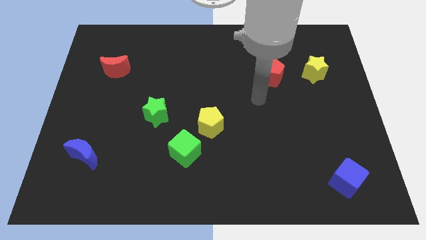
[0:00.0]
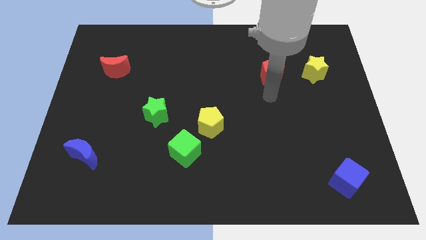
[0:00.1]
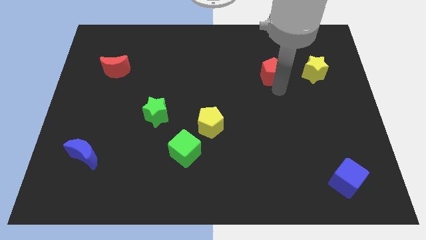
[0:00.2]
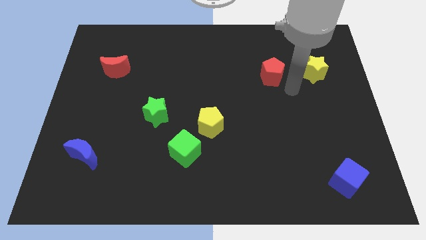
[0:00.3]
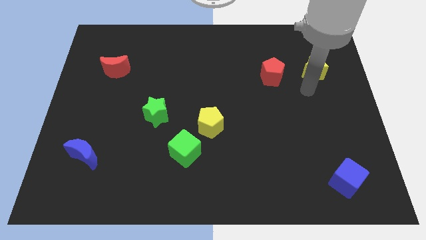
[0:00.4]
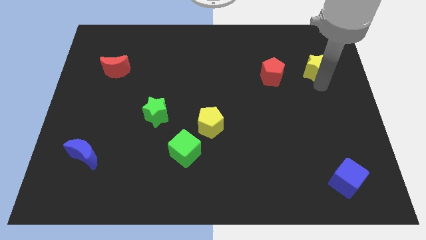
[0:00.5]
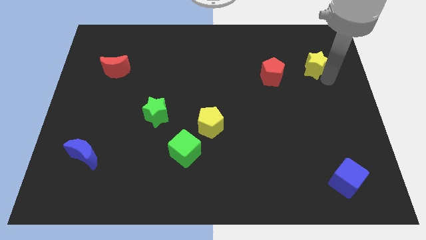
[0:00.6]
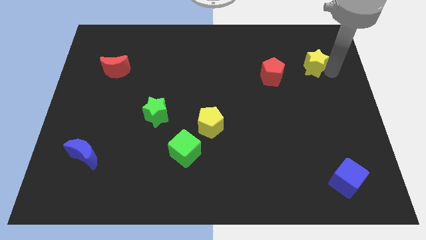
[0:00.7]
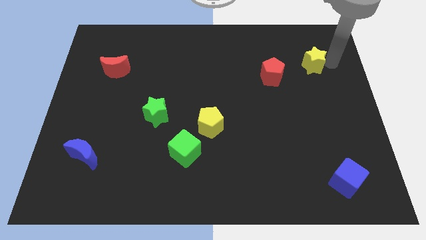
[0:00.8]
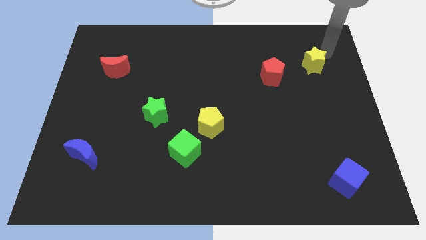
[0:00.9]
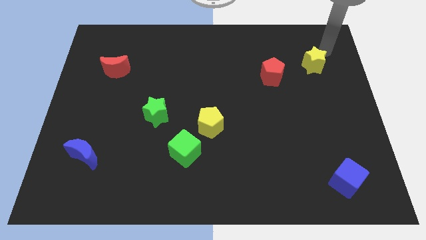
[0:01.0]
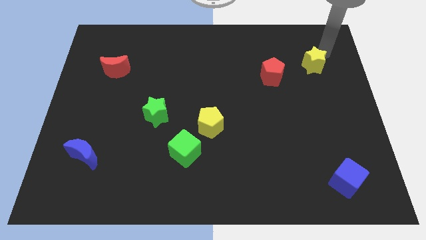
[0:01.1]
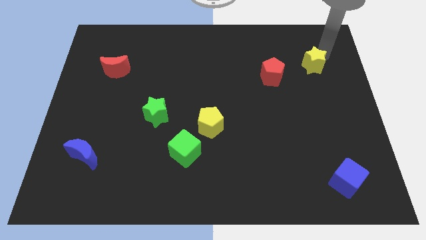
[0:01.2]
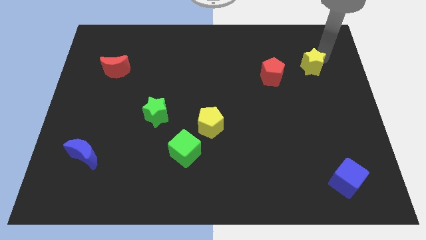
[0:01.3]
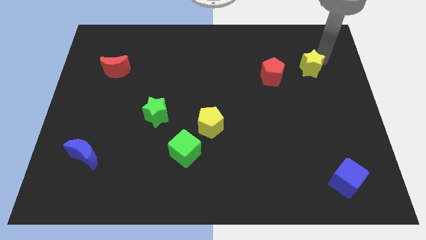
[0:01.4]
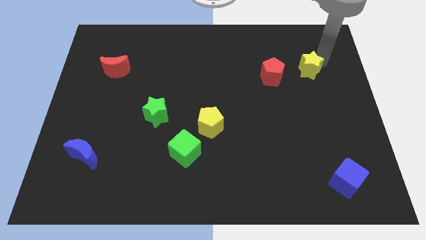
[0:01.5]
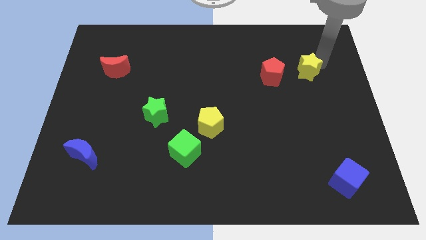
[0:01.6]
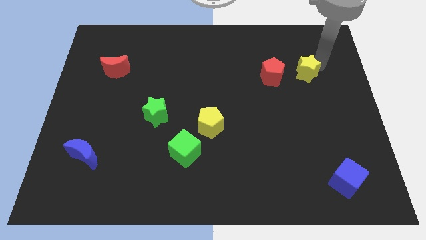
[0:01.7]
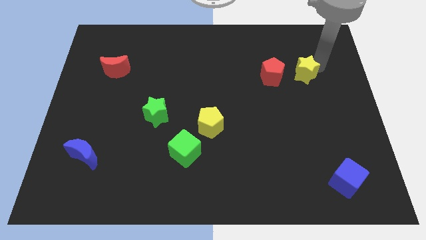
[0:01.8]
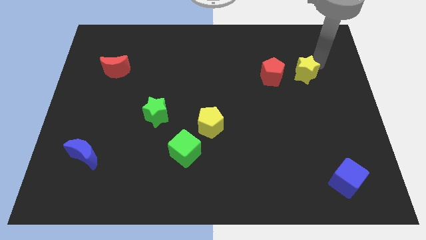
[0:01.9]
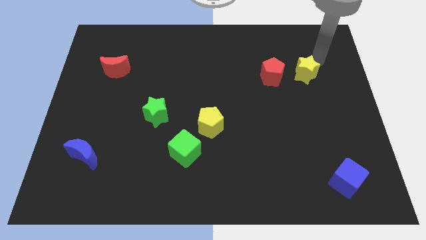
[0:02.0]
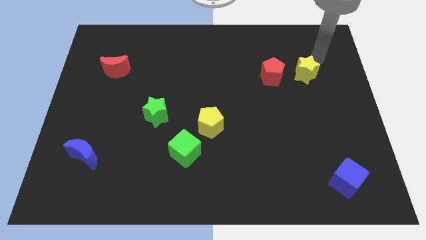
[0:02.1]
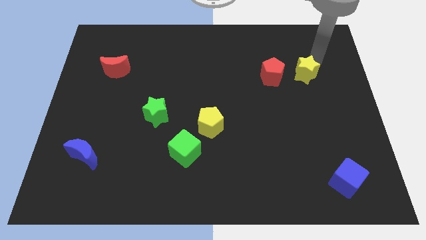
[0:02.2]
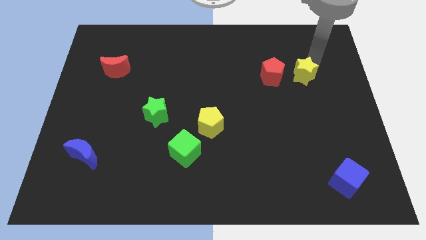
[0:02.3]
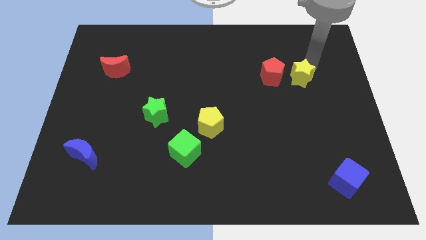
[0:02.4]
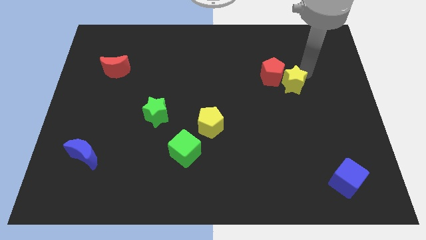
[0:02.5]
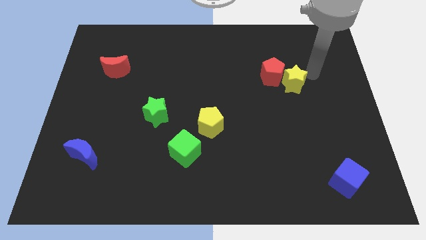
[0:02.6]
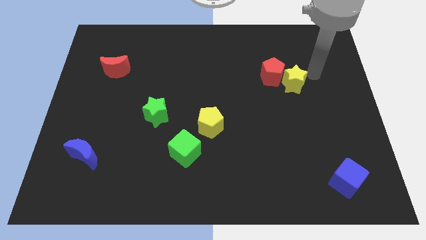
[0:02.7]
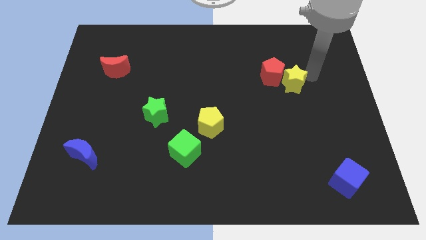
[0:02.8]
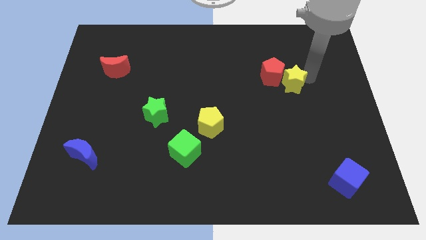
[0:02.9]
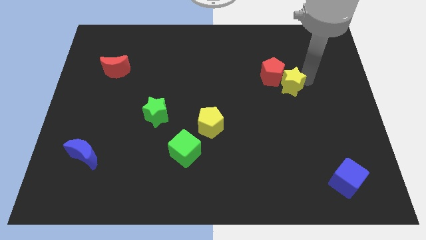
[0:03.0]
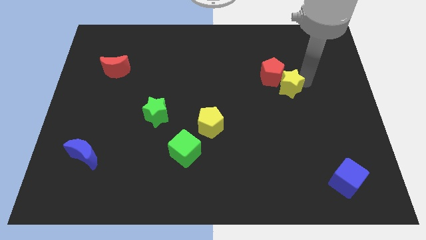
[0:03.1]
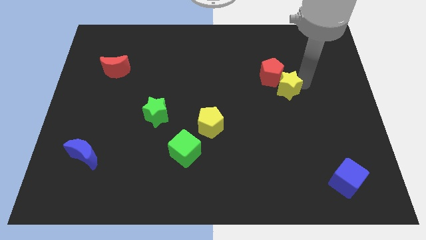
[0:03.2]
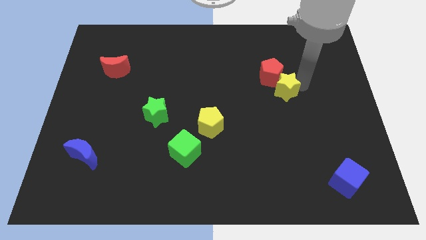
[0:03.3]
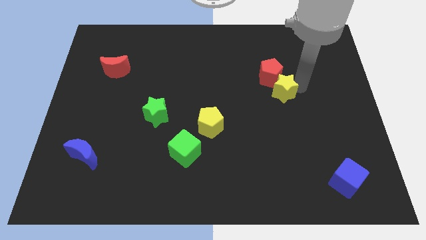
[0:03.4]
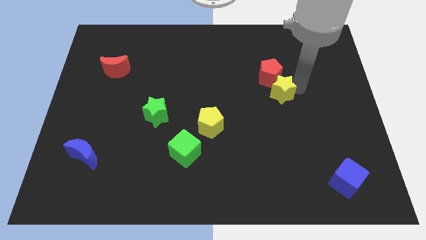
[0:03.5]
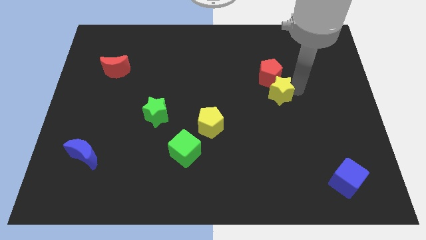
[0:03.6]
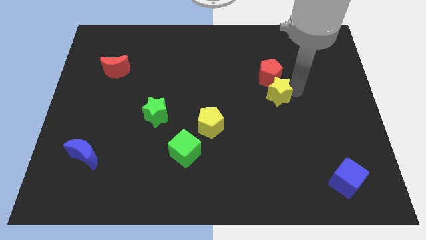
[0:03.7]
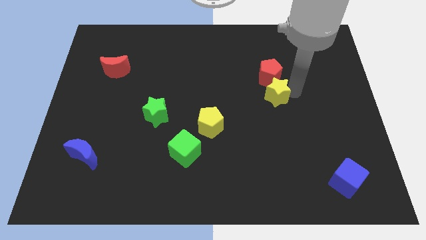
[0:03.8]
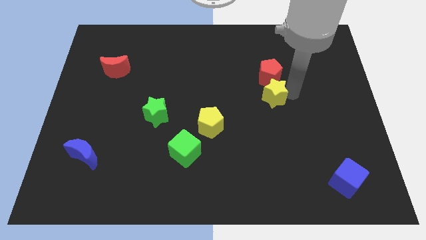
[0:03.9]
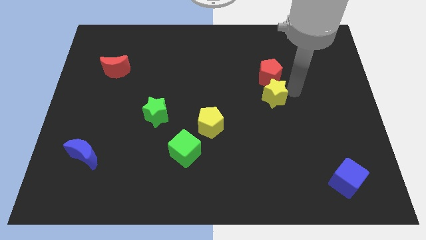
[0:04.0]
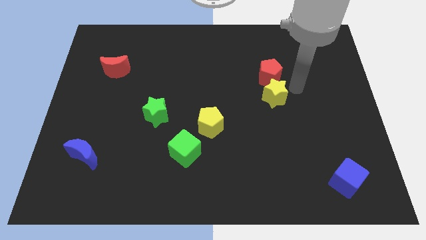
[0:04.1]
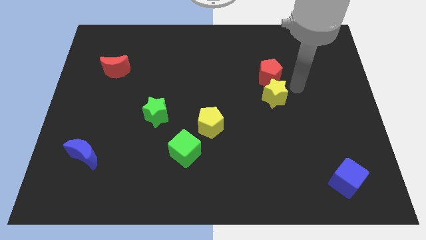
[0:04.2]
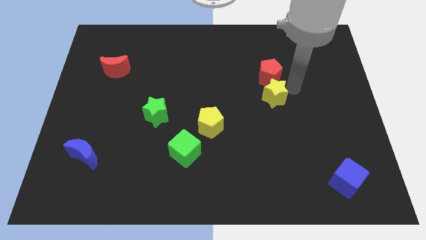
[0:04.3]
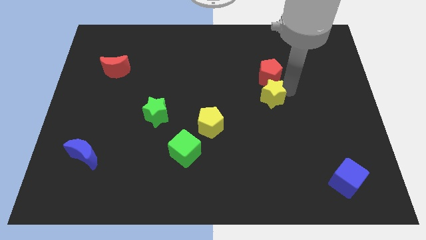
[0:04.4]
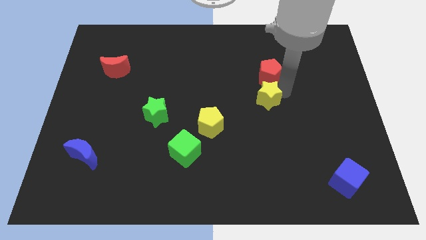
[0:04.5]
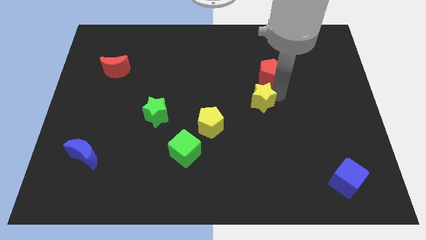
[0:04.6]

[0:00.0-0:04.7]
put the yellow star to the middle

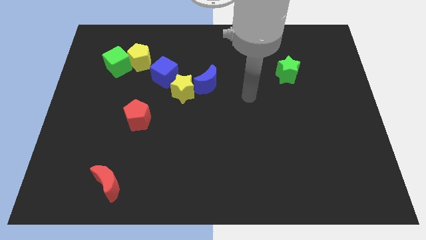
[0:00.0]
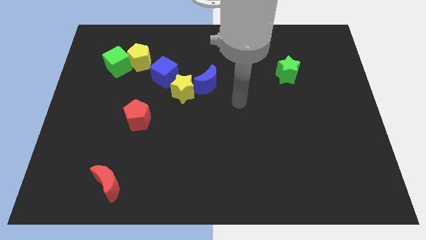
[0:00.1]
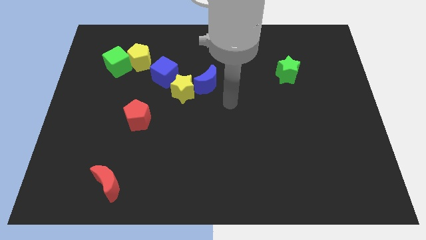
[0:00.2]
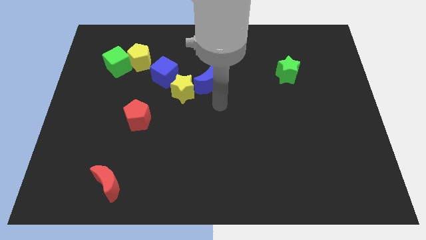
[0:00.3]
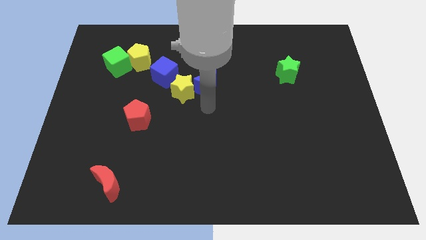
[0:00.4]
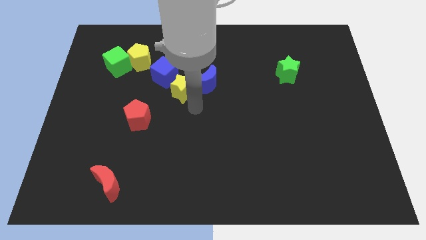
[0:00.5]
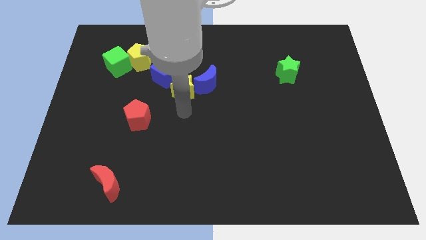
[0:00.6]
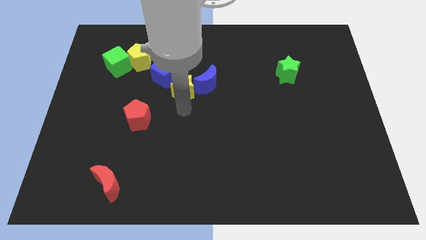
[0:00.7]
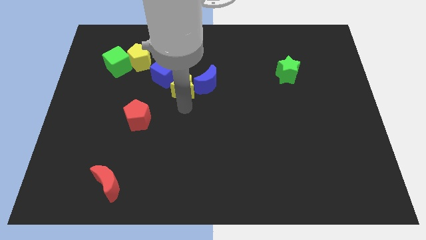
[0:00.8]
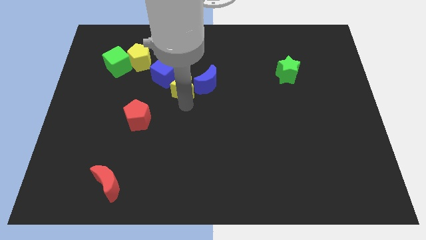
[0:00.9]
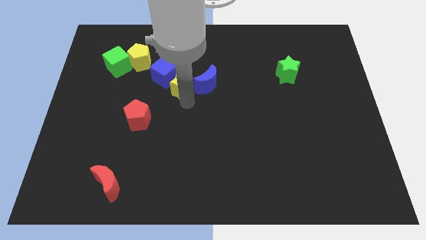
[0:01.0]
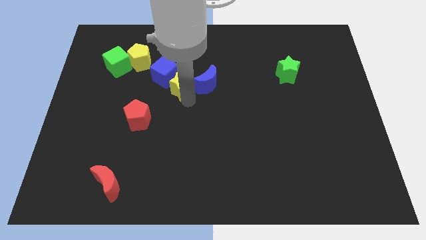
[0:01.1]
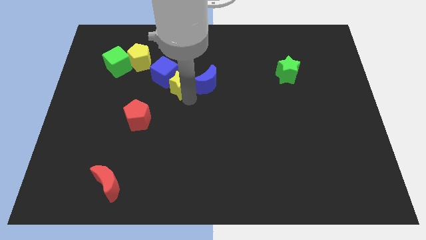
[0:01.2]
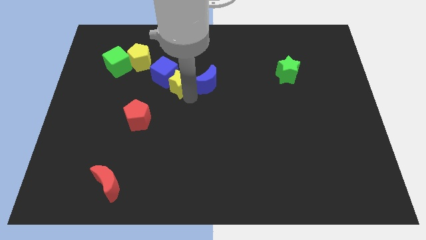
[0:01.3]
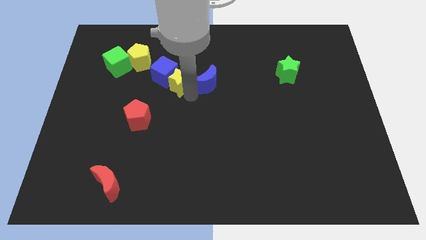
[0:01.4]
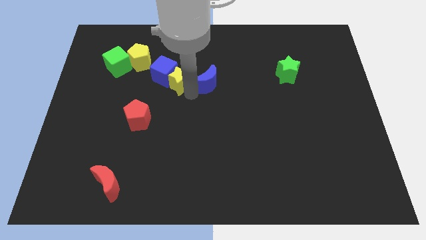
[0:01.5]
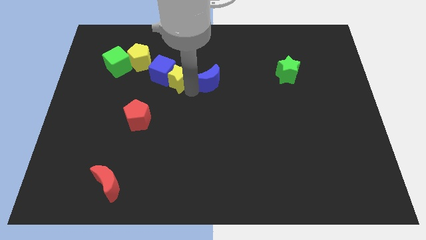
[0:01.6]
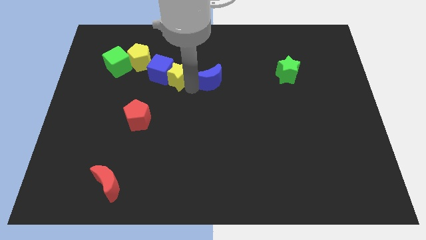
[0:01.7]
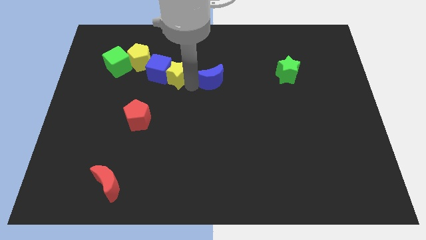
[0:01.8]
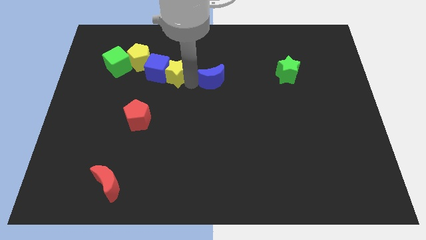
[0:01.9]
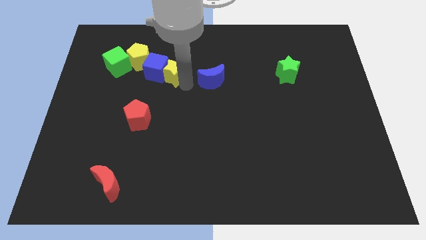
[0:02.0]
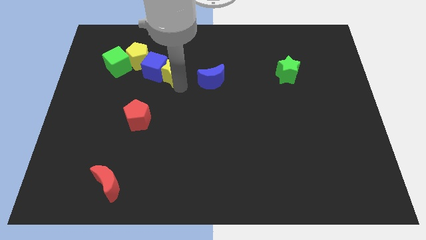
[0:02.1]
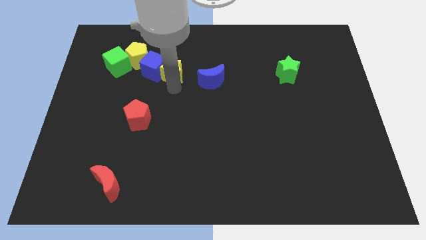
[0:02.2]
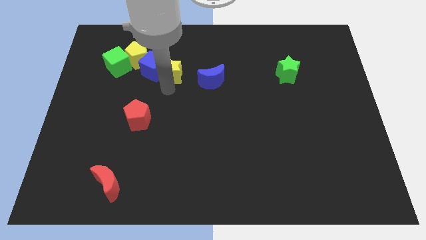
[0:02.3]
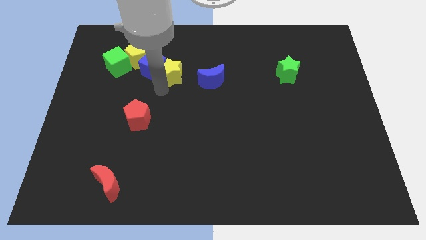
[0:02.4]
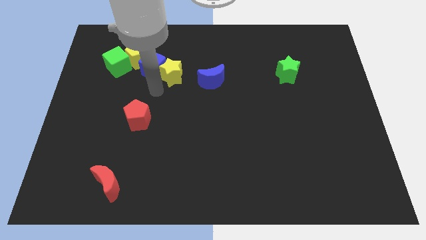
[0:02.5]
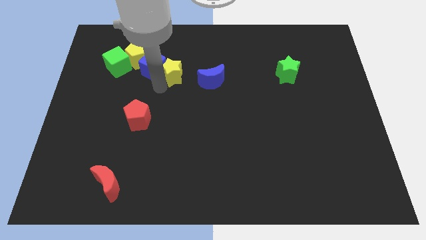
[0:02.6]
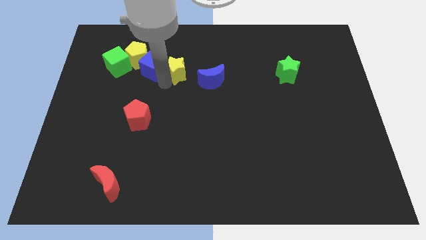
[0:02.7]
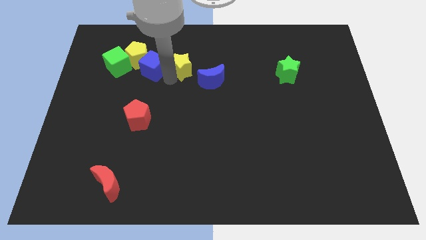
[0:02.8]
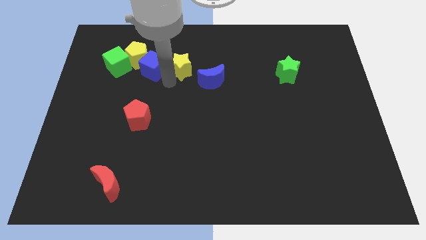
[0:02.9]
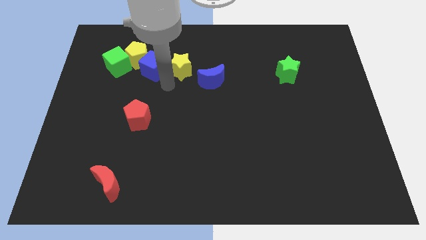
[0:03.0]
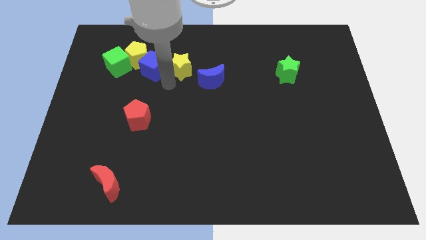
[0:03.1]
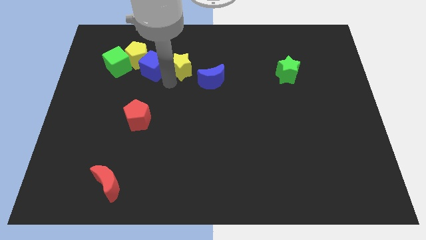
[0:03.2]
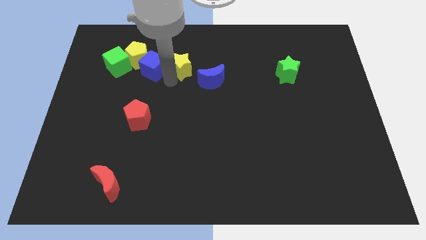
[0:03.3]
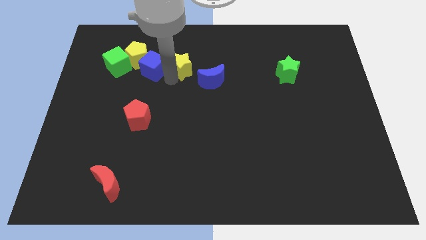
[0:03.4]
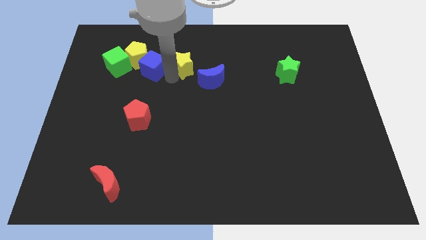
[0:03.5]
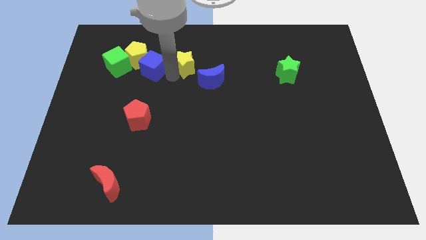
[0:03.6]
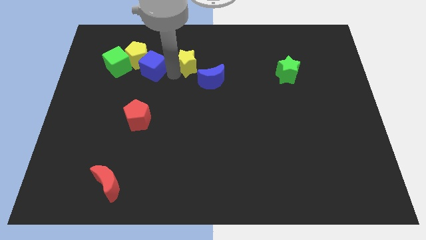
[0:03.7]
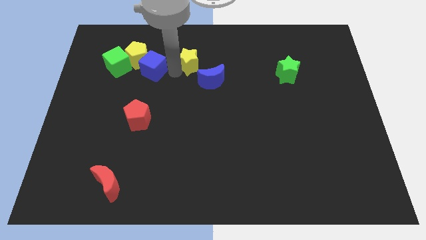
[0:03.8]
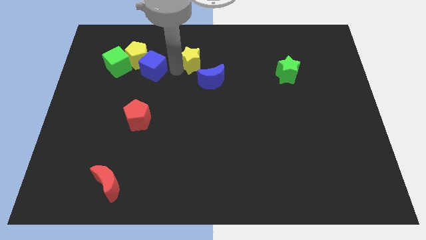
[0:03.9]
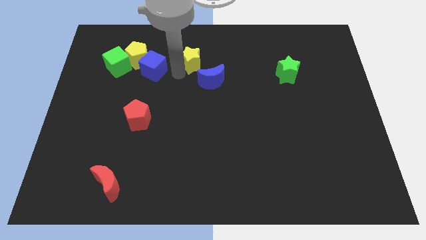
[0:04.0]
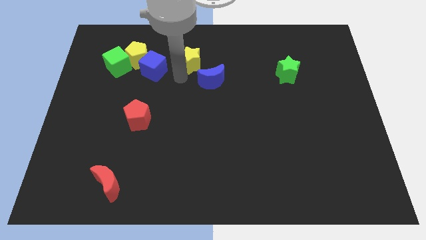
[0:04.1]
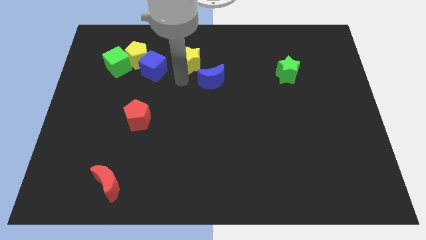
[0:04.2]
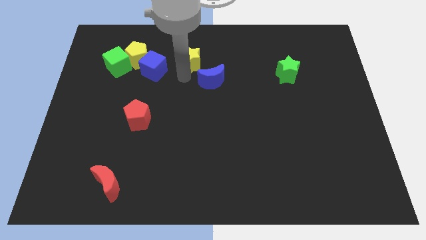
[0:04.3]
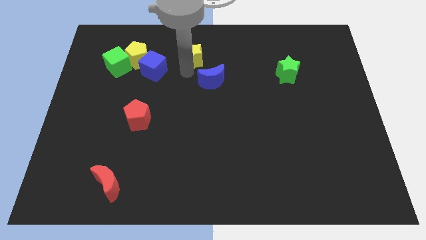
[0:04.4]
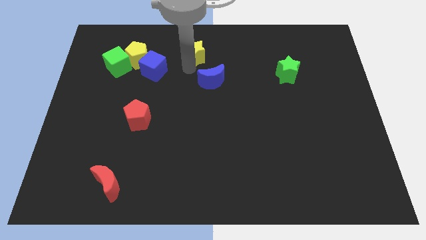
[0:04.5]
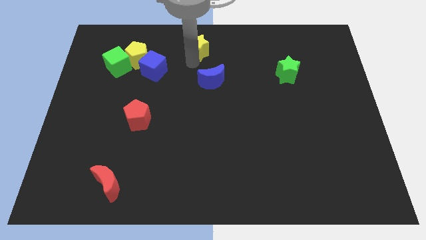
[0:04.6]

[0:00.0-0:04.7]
slide the yellow star to the top
